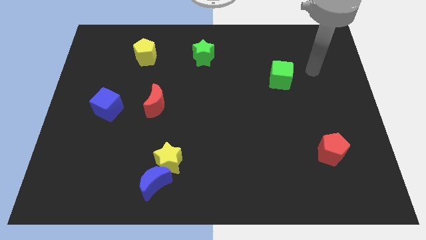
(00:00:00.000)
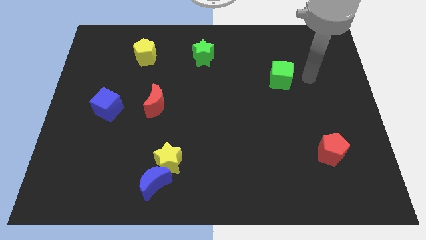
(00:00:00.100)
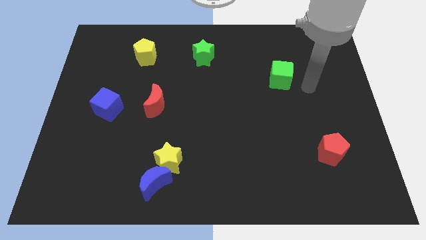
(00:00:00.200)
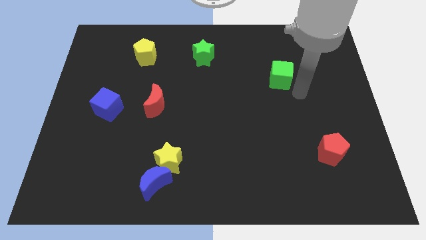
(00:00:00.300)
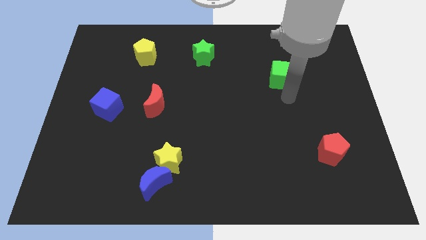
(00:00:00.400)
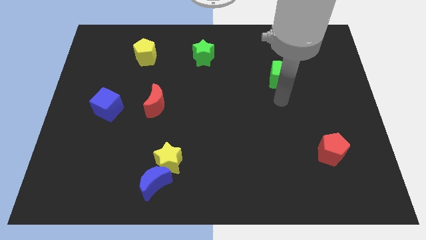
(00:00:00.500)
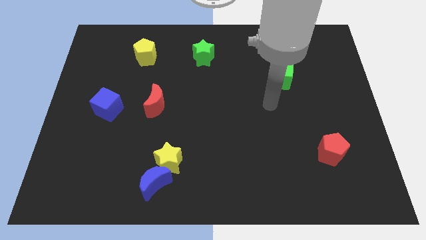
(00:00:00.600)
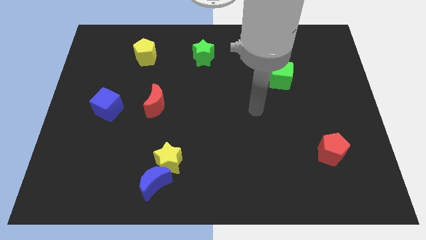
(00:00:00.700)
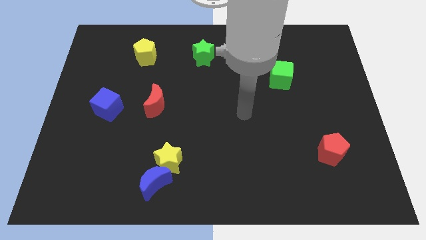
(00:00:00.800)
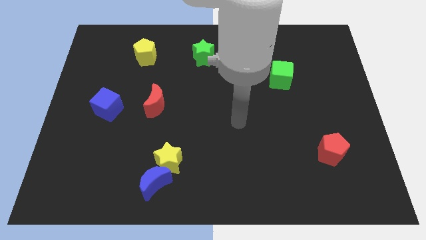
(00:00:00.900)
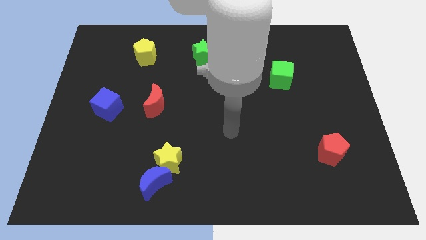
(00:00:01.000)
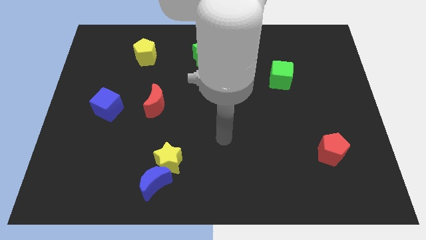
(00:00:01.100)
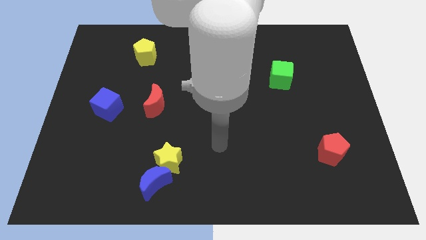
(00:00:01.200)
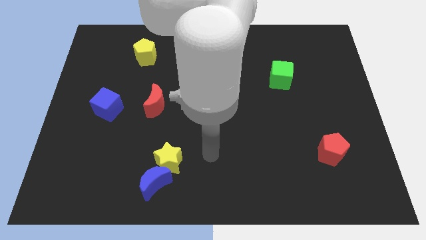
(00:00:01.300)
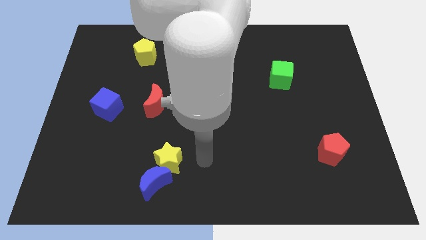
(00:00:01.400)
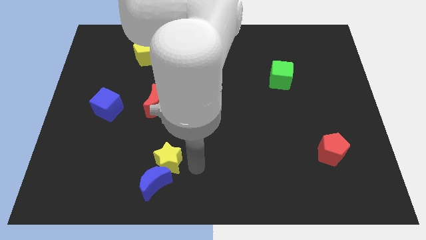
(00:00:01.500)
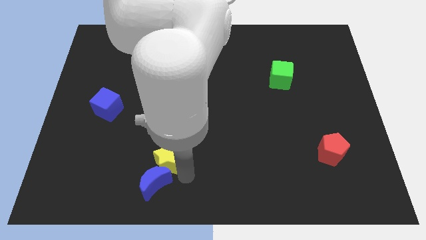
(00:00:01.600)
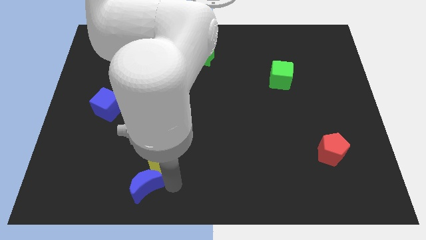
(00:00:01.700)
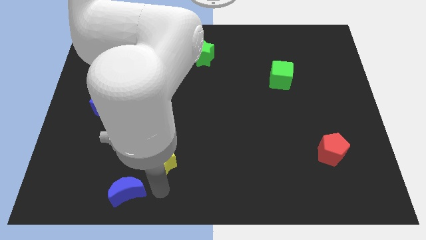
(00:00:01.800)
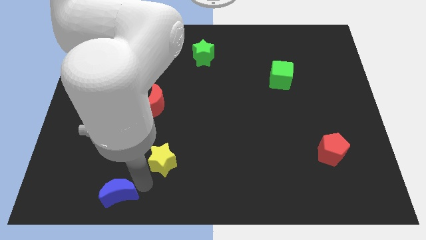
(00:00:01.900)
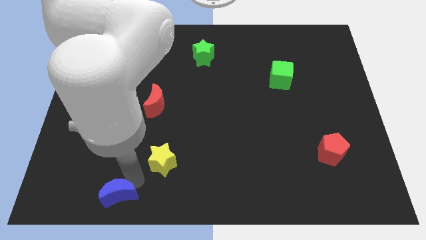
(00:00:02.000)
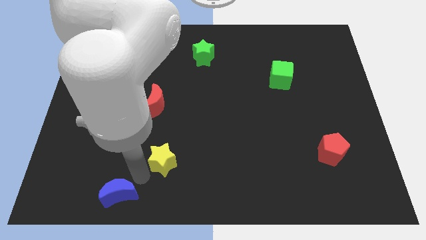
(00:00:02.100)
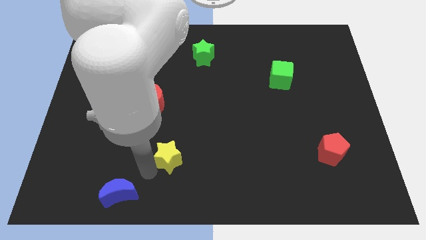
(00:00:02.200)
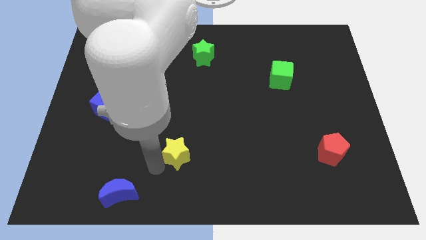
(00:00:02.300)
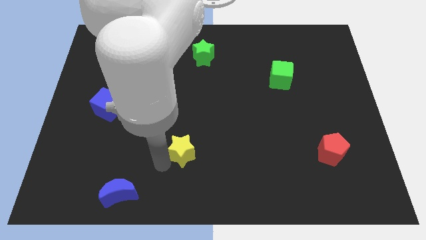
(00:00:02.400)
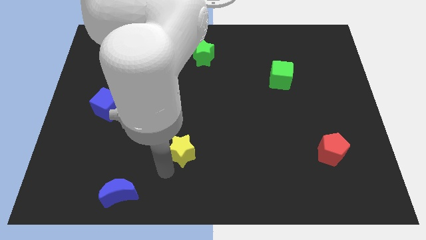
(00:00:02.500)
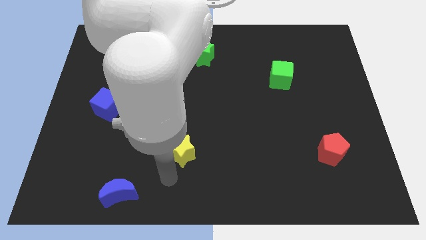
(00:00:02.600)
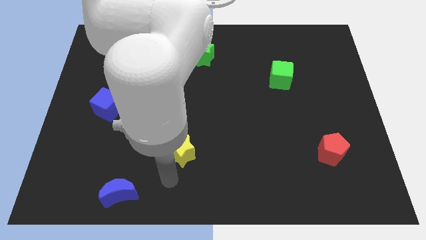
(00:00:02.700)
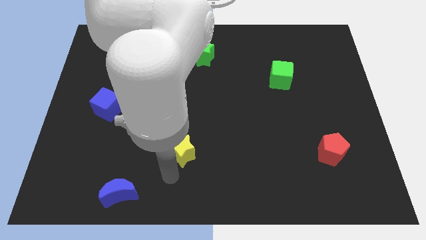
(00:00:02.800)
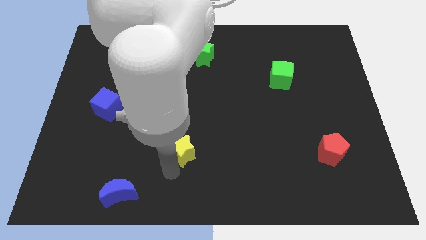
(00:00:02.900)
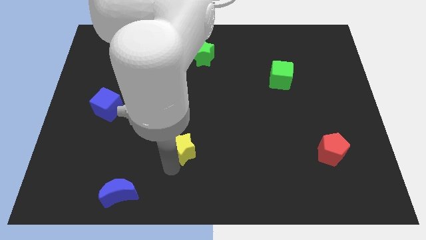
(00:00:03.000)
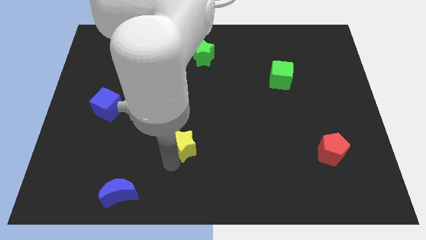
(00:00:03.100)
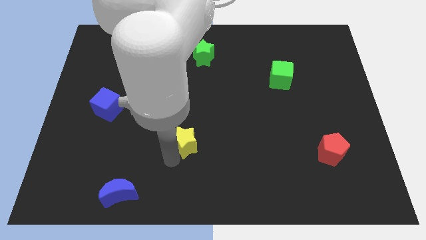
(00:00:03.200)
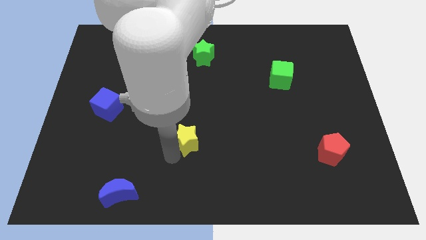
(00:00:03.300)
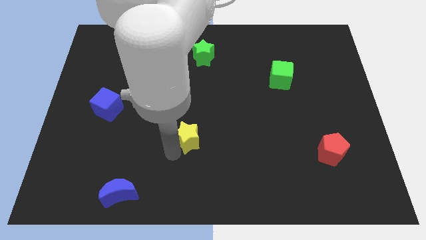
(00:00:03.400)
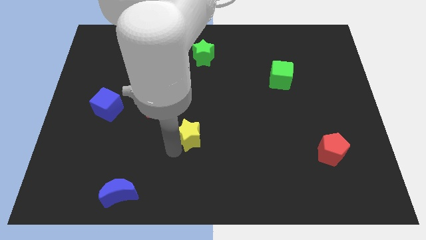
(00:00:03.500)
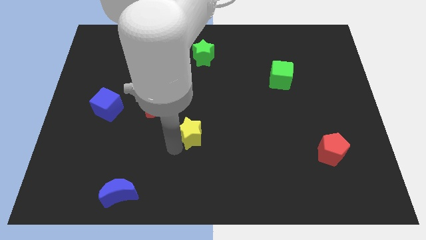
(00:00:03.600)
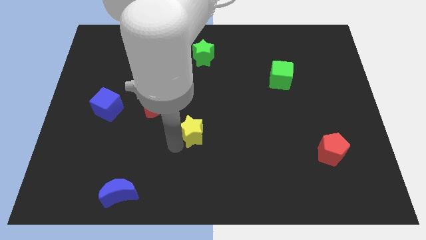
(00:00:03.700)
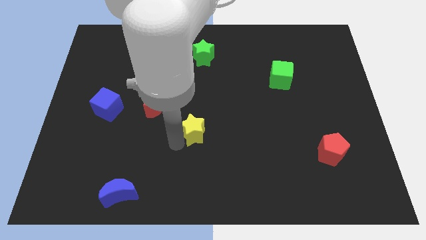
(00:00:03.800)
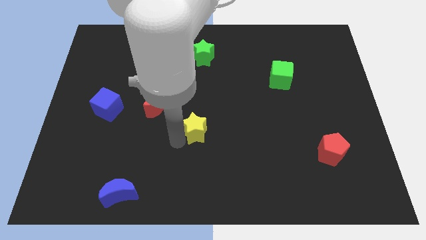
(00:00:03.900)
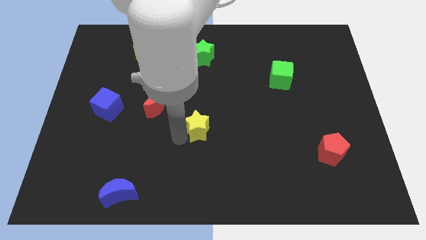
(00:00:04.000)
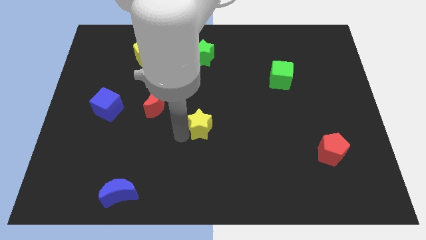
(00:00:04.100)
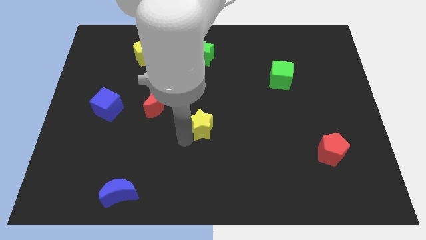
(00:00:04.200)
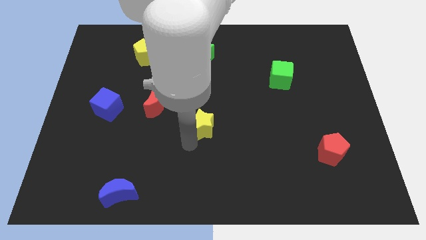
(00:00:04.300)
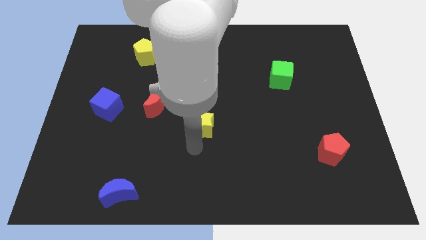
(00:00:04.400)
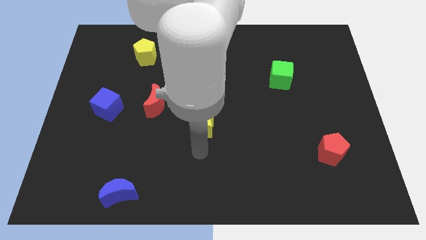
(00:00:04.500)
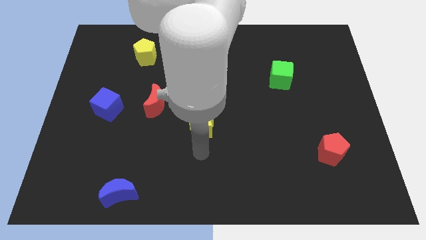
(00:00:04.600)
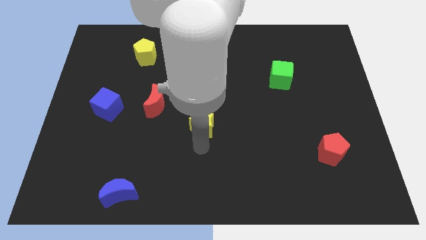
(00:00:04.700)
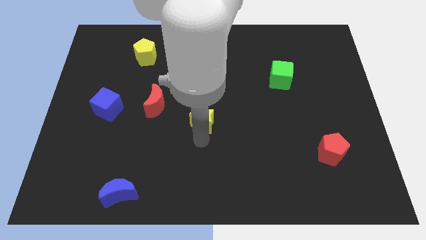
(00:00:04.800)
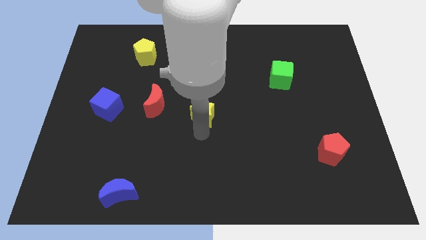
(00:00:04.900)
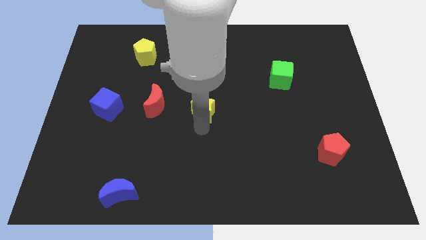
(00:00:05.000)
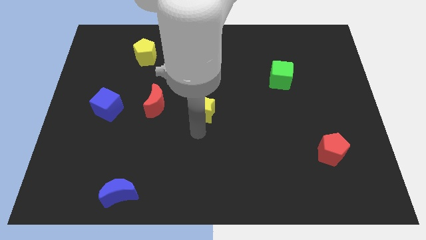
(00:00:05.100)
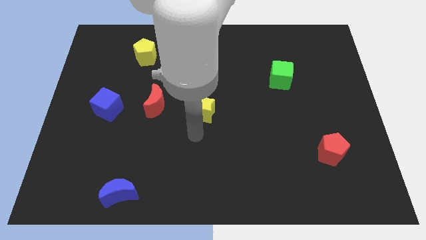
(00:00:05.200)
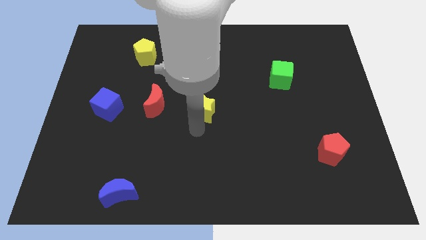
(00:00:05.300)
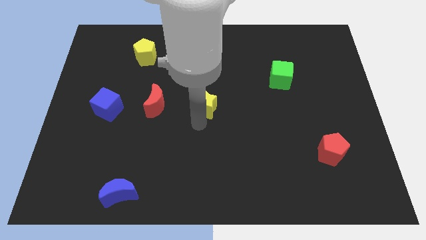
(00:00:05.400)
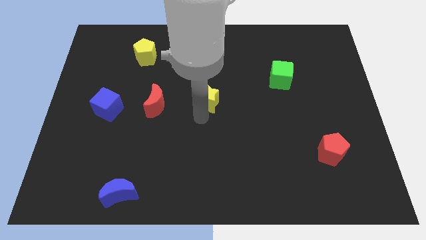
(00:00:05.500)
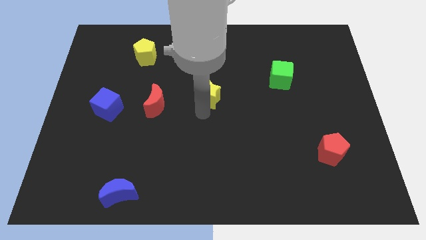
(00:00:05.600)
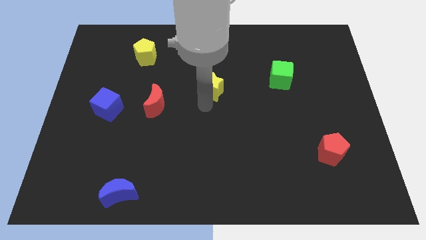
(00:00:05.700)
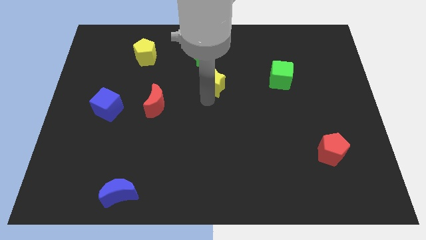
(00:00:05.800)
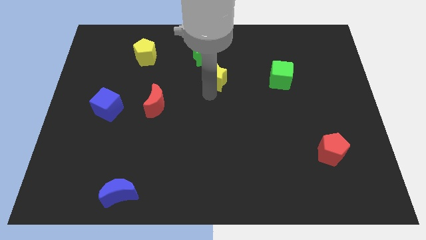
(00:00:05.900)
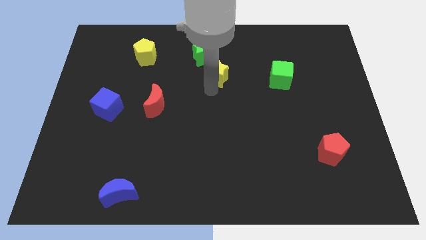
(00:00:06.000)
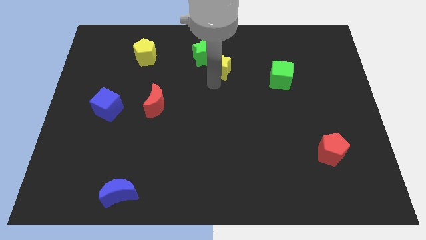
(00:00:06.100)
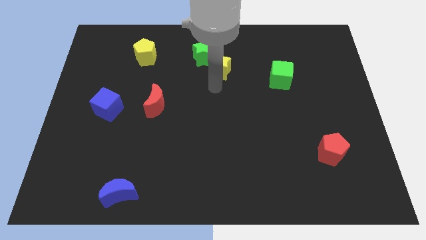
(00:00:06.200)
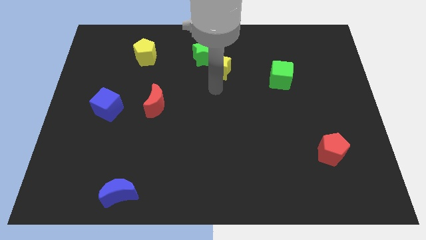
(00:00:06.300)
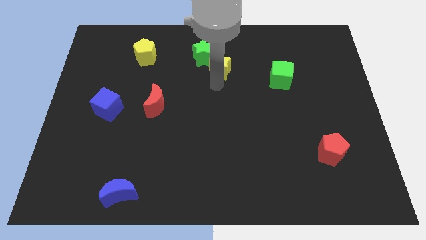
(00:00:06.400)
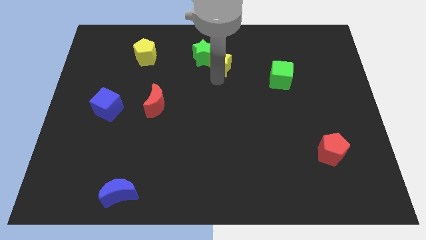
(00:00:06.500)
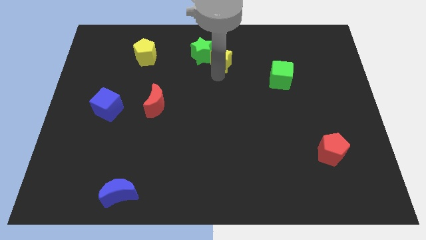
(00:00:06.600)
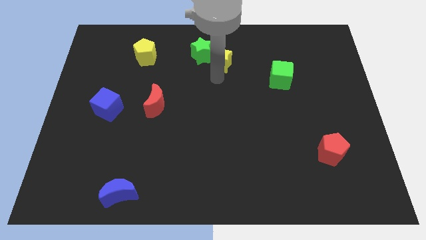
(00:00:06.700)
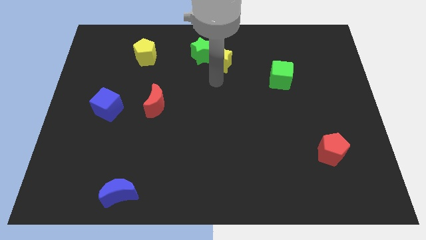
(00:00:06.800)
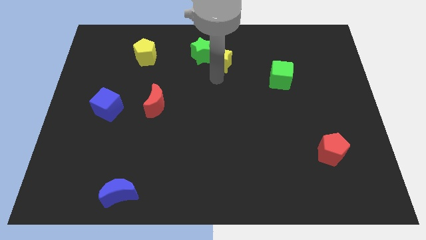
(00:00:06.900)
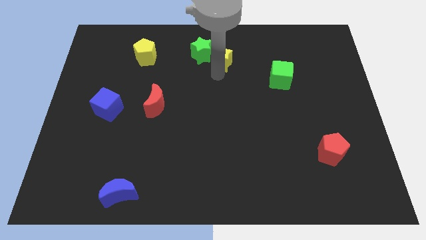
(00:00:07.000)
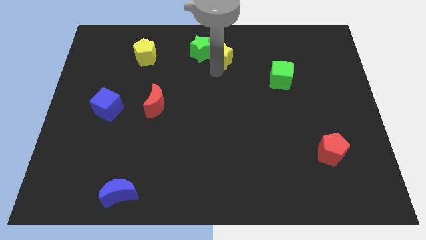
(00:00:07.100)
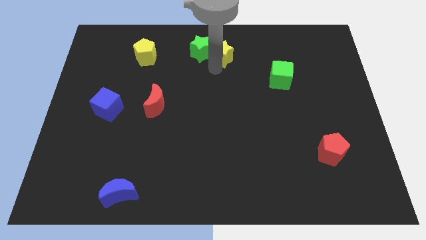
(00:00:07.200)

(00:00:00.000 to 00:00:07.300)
push the yellow star to the top

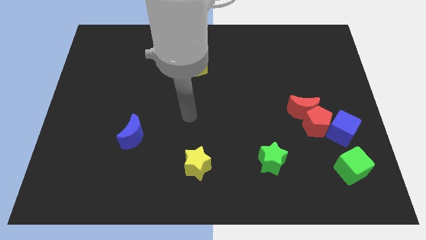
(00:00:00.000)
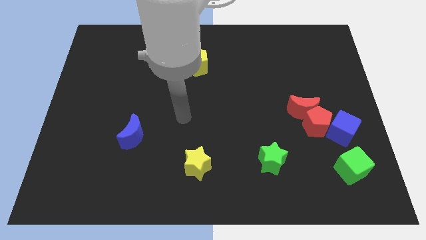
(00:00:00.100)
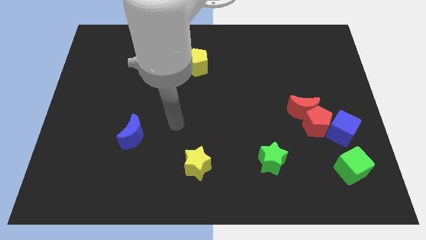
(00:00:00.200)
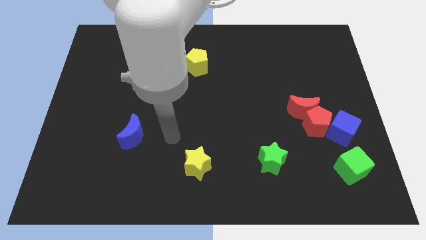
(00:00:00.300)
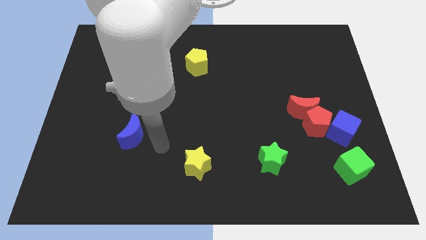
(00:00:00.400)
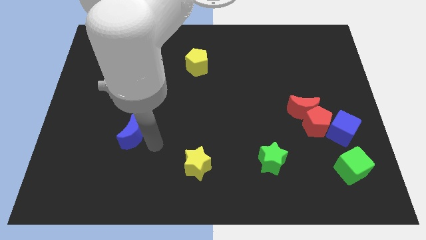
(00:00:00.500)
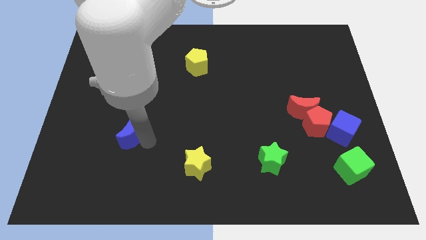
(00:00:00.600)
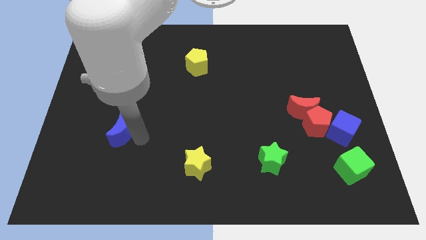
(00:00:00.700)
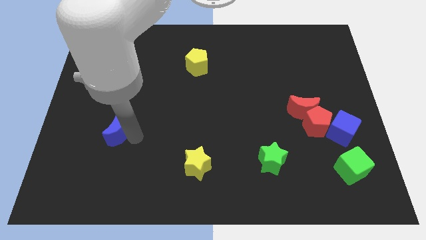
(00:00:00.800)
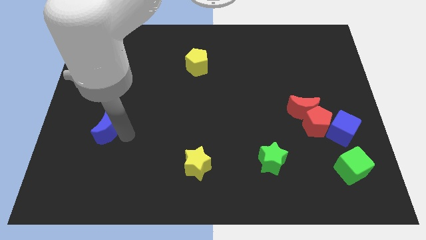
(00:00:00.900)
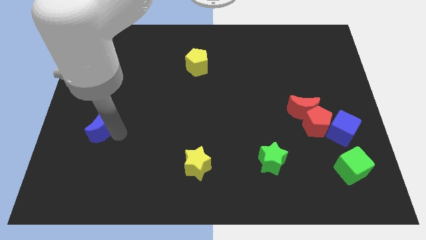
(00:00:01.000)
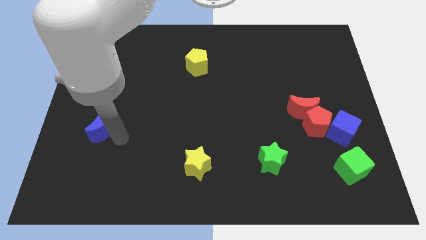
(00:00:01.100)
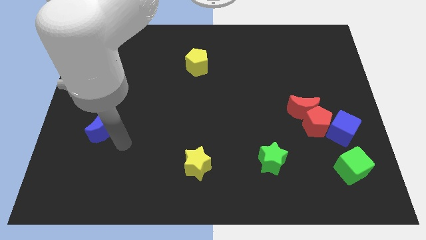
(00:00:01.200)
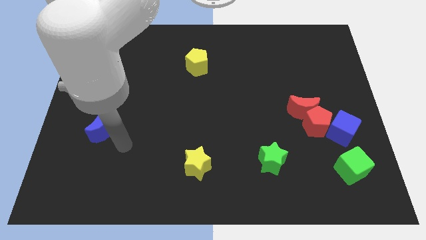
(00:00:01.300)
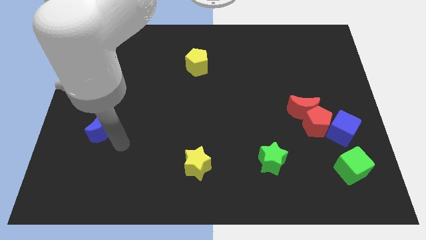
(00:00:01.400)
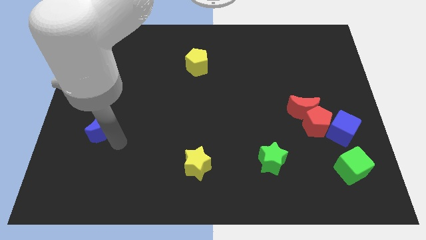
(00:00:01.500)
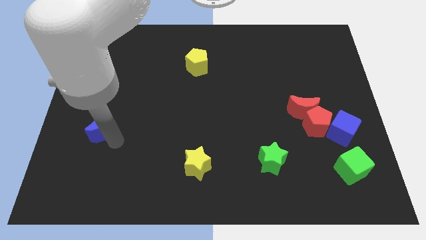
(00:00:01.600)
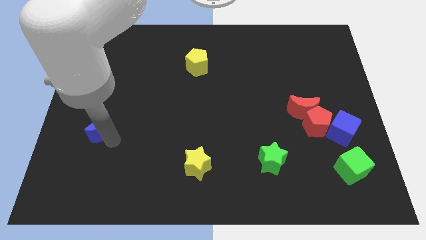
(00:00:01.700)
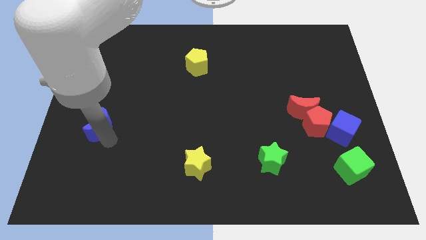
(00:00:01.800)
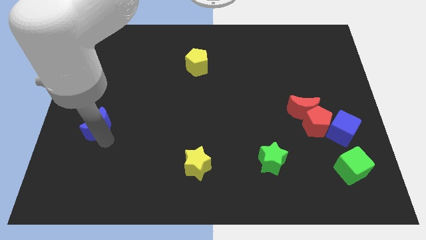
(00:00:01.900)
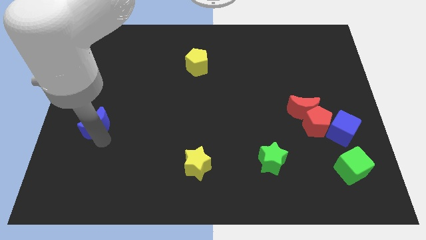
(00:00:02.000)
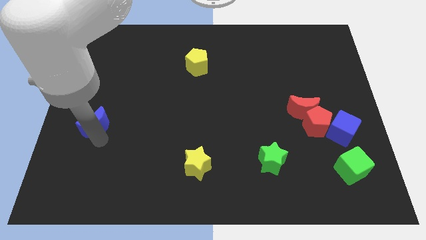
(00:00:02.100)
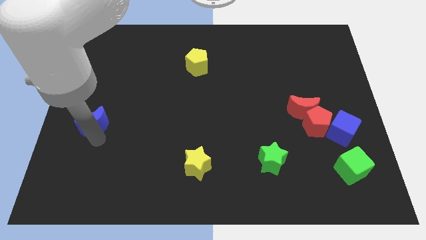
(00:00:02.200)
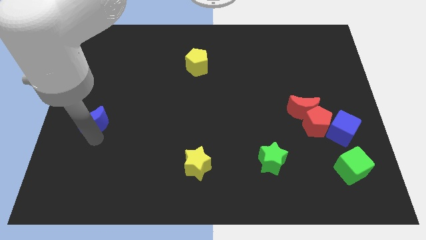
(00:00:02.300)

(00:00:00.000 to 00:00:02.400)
push the blue moon to the left side of the board
